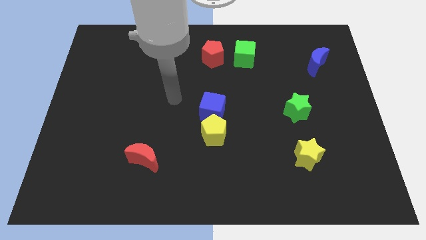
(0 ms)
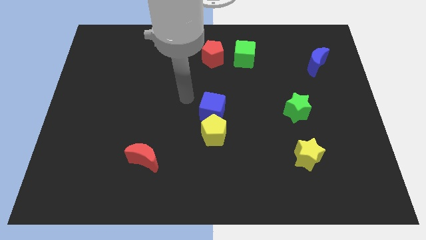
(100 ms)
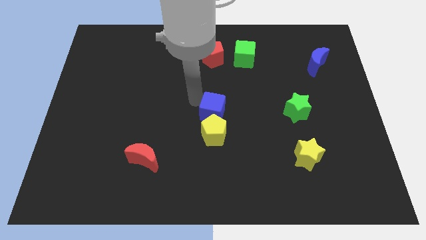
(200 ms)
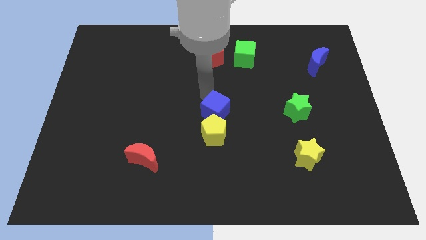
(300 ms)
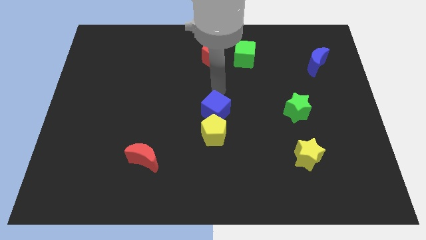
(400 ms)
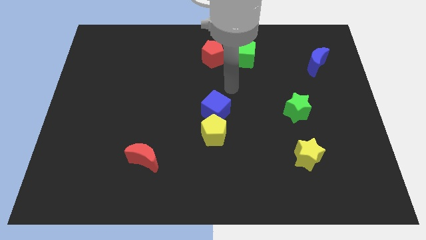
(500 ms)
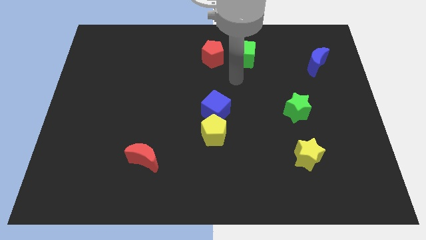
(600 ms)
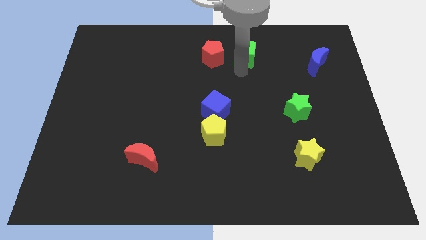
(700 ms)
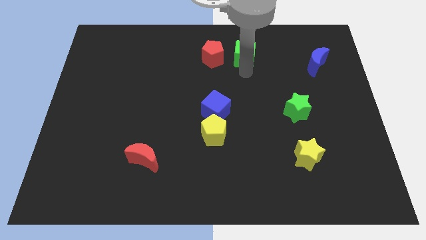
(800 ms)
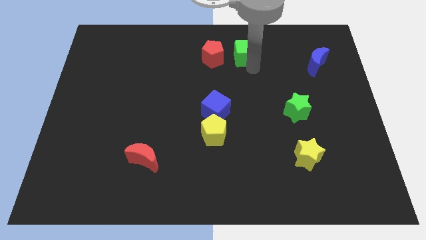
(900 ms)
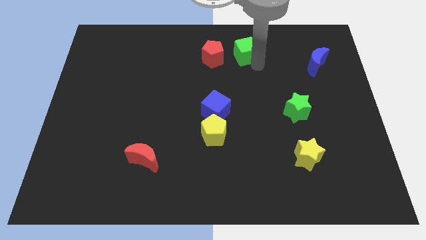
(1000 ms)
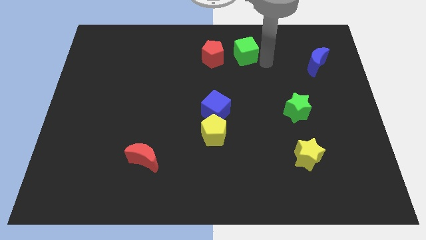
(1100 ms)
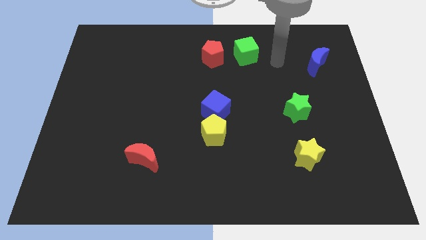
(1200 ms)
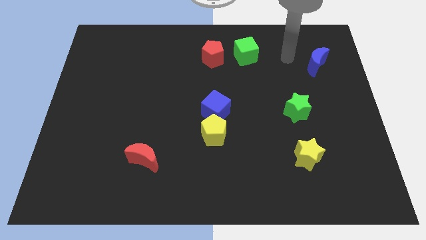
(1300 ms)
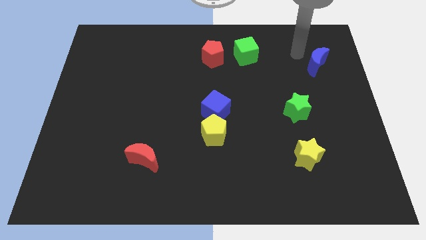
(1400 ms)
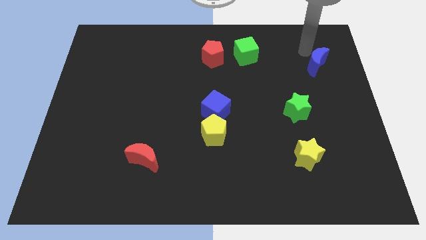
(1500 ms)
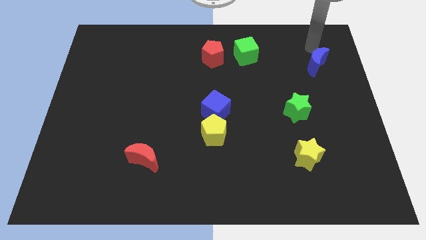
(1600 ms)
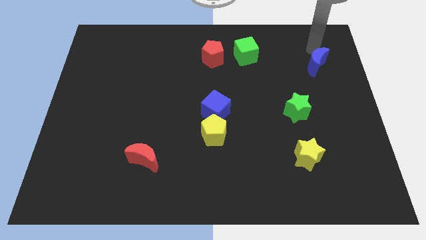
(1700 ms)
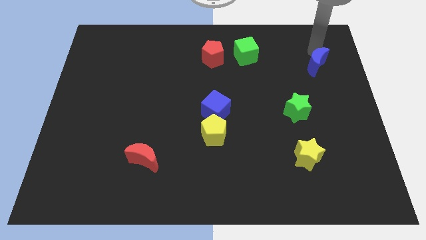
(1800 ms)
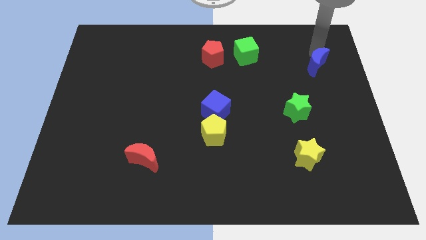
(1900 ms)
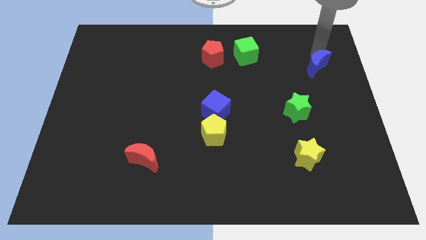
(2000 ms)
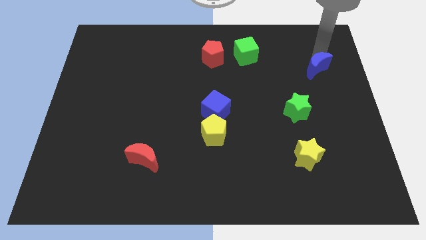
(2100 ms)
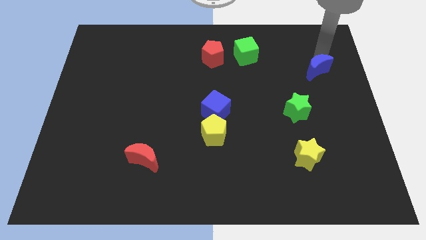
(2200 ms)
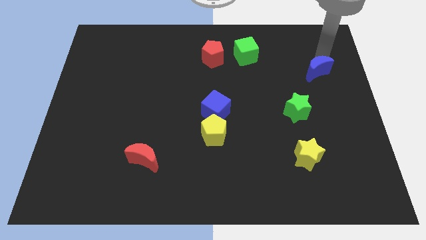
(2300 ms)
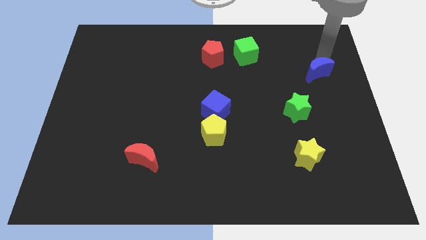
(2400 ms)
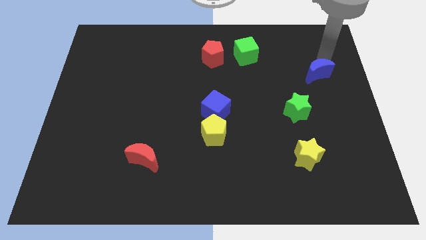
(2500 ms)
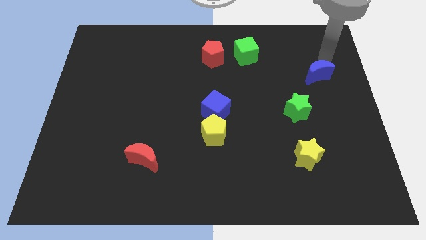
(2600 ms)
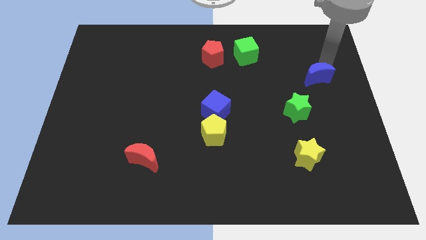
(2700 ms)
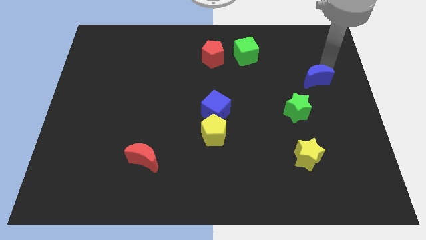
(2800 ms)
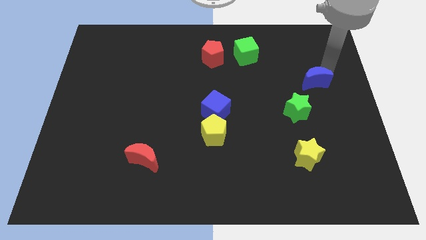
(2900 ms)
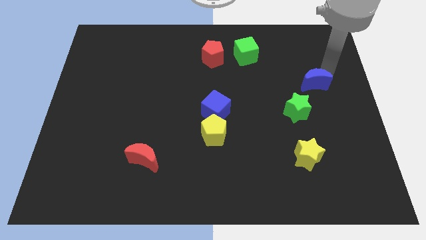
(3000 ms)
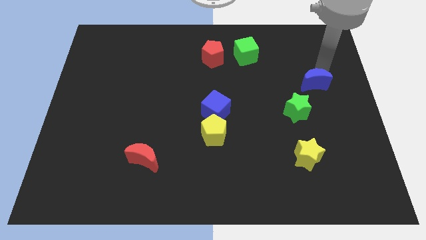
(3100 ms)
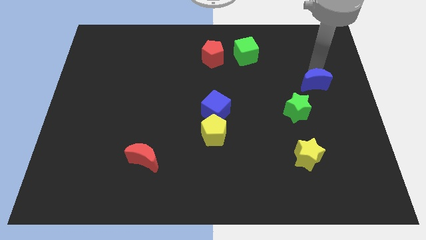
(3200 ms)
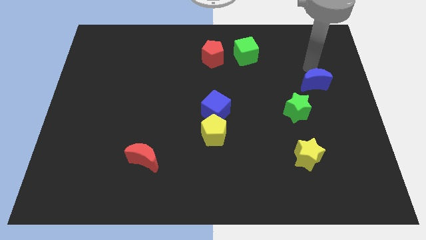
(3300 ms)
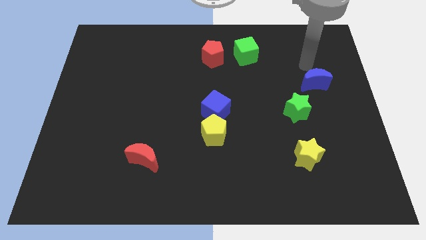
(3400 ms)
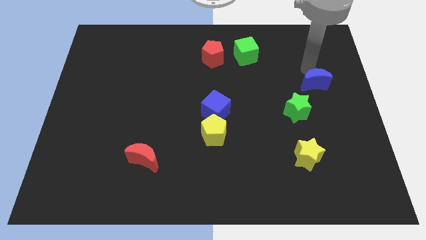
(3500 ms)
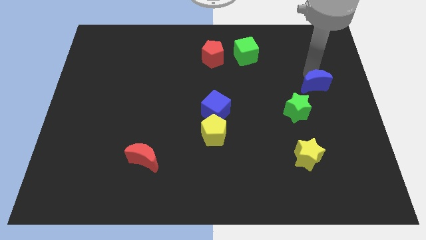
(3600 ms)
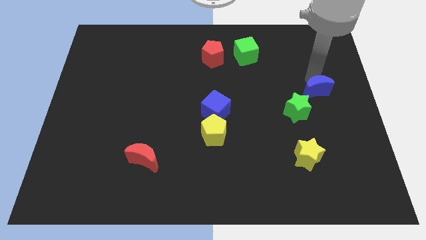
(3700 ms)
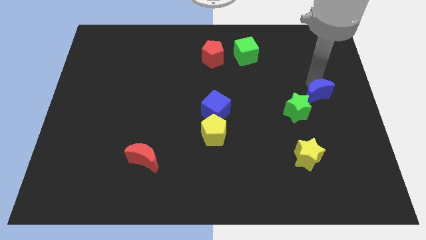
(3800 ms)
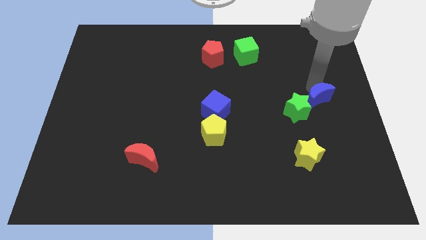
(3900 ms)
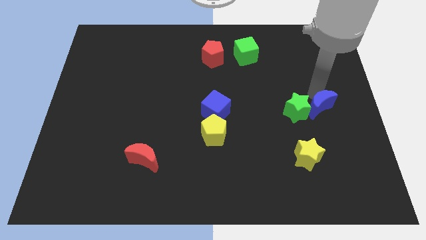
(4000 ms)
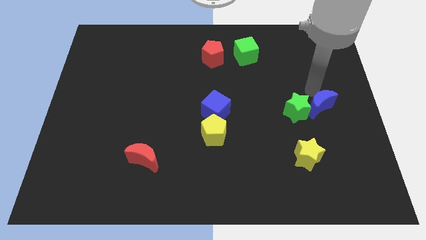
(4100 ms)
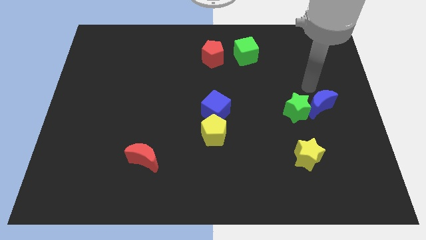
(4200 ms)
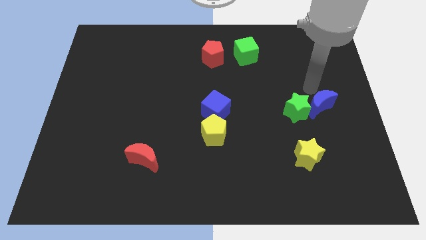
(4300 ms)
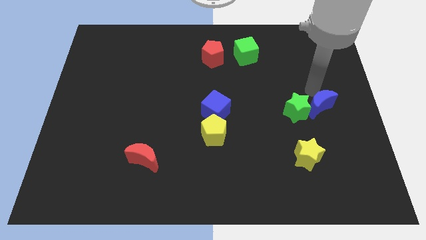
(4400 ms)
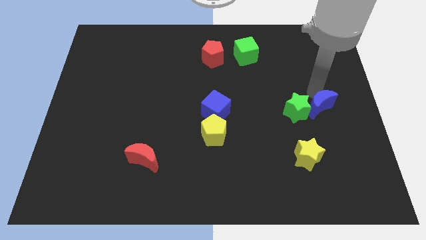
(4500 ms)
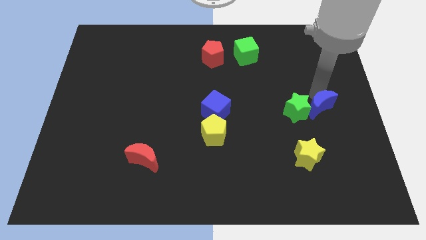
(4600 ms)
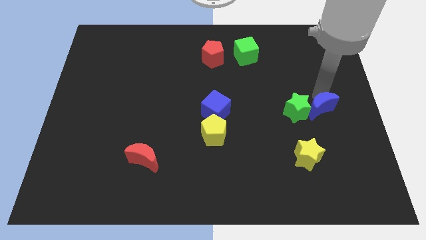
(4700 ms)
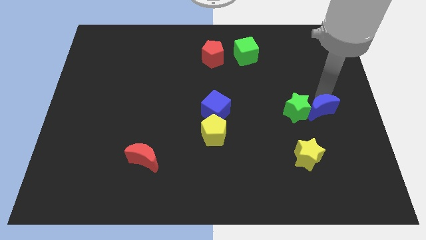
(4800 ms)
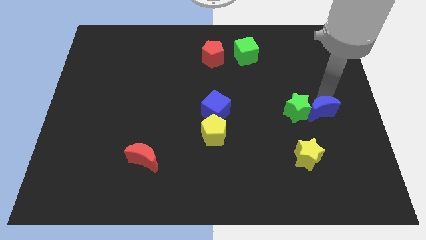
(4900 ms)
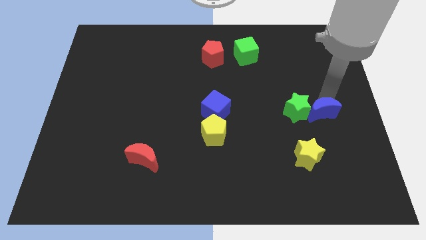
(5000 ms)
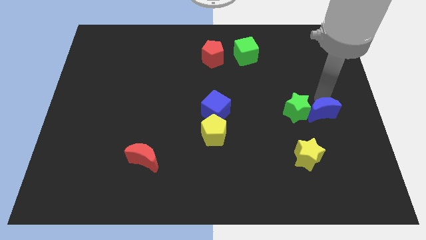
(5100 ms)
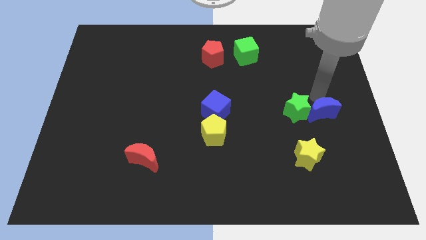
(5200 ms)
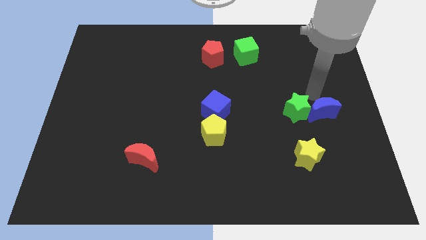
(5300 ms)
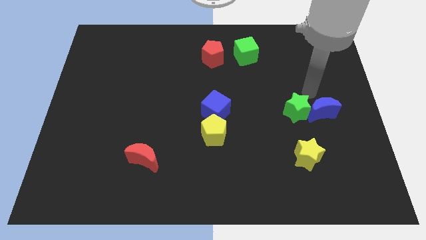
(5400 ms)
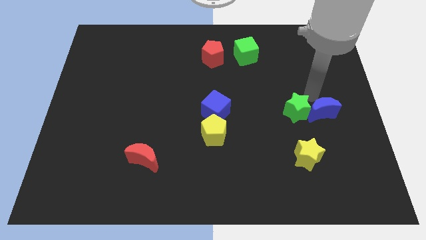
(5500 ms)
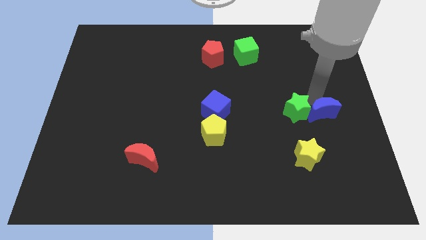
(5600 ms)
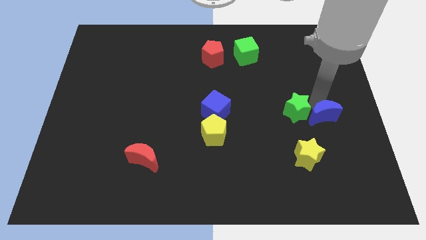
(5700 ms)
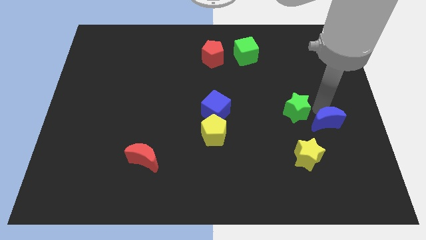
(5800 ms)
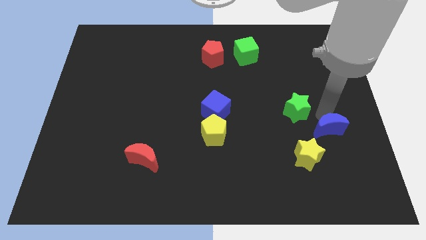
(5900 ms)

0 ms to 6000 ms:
slide the blue moon downwards

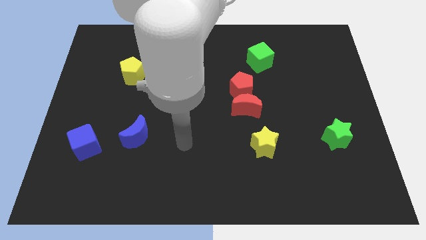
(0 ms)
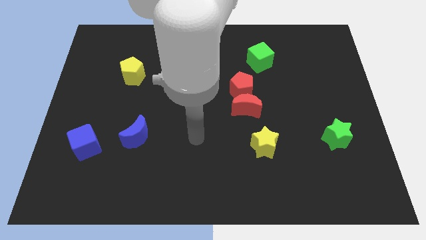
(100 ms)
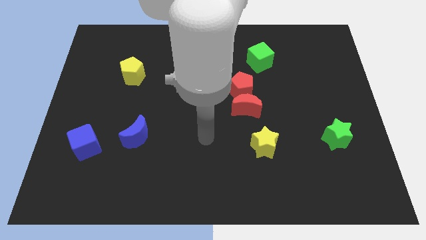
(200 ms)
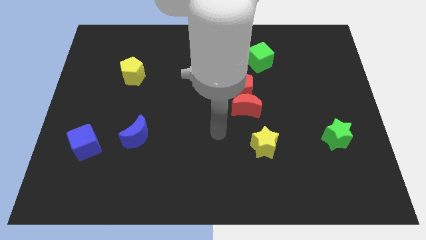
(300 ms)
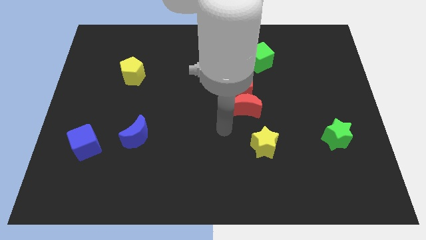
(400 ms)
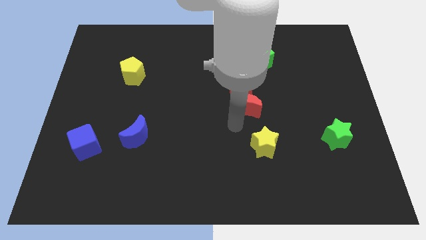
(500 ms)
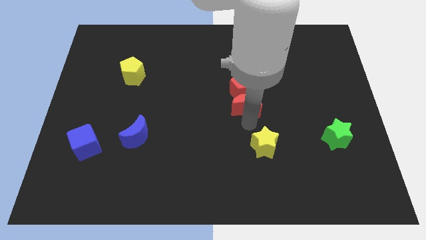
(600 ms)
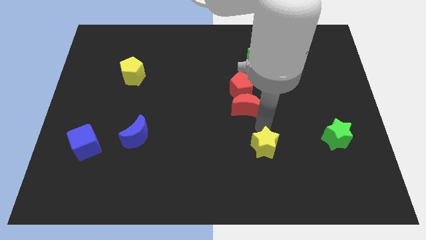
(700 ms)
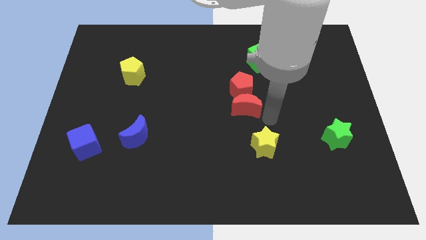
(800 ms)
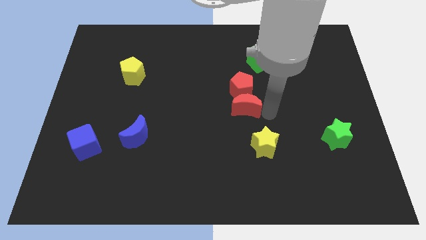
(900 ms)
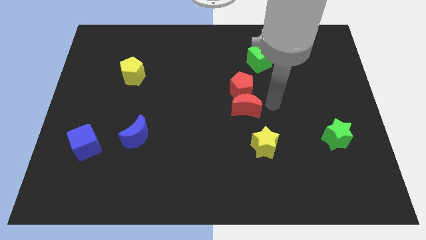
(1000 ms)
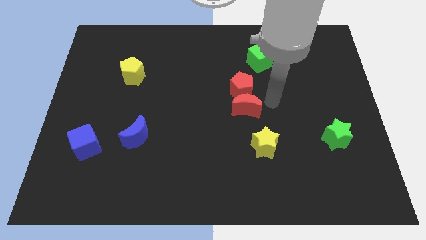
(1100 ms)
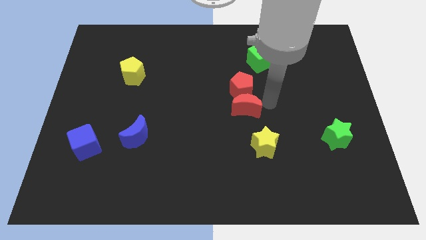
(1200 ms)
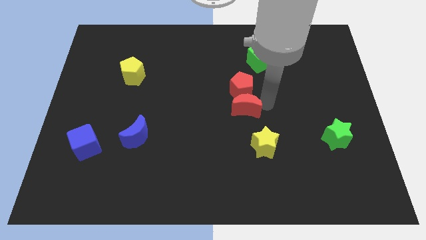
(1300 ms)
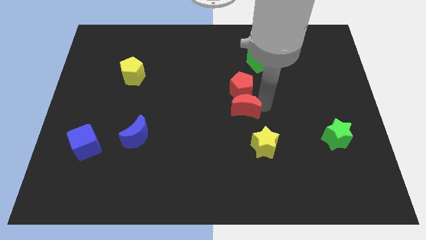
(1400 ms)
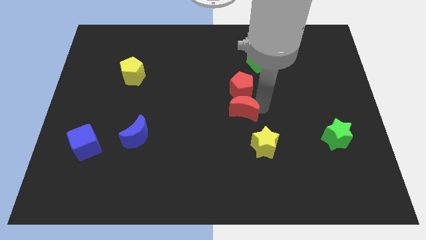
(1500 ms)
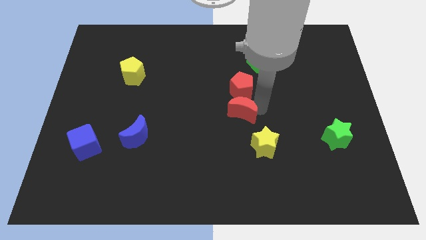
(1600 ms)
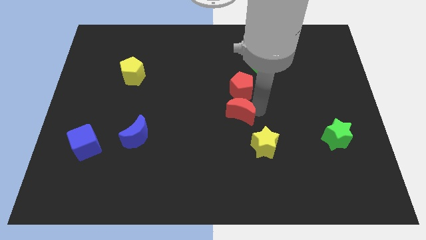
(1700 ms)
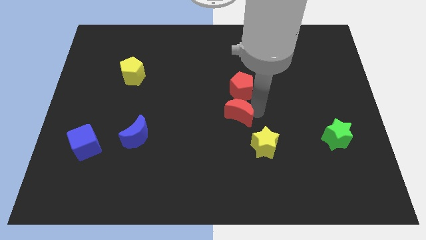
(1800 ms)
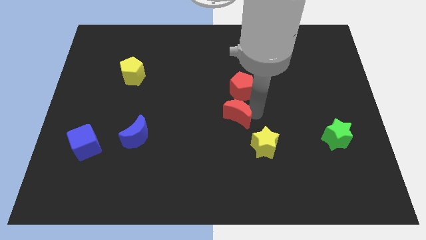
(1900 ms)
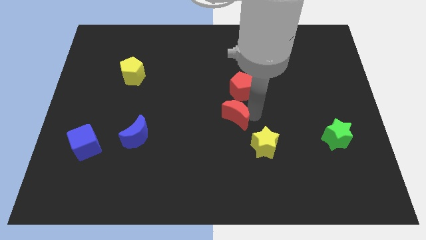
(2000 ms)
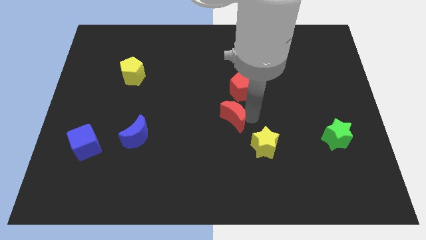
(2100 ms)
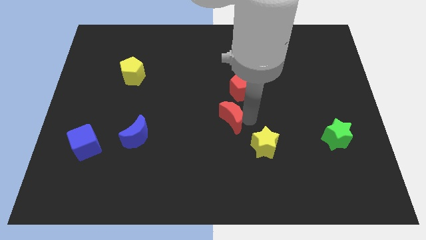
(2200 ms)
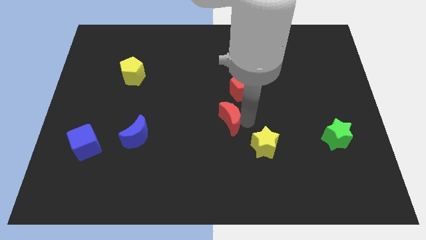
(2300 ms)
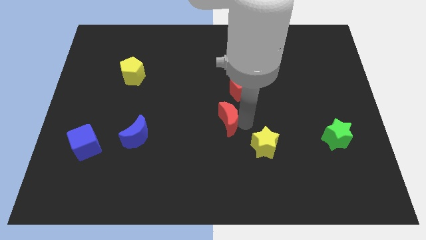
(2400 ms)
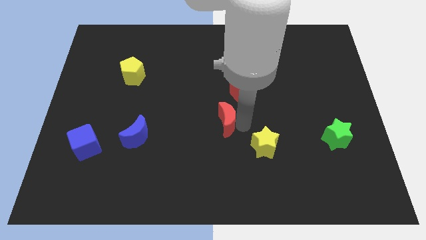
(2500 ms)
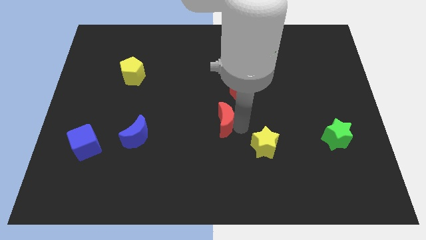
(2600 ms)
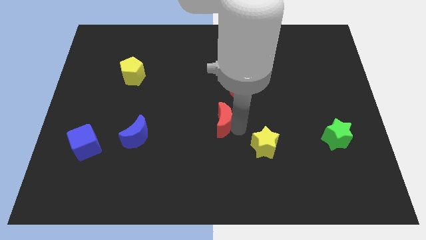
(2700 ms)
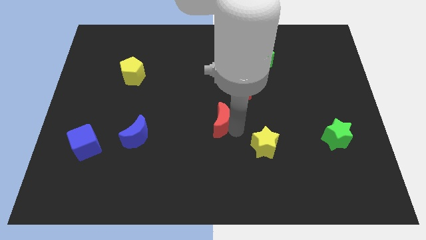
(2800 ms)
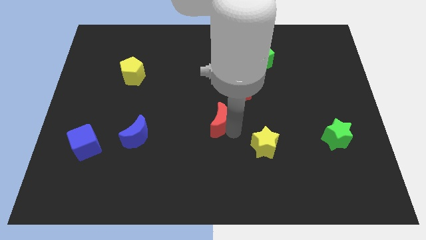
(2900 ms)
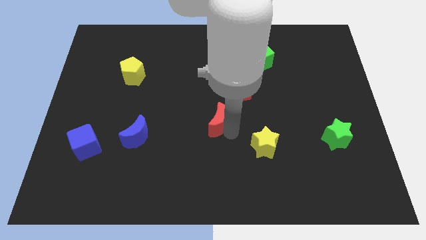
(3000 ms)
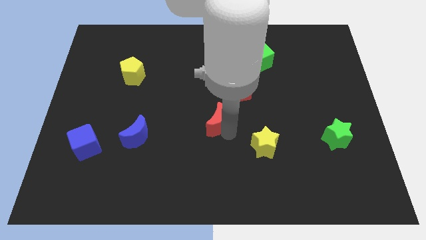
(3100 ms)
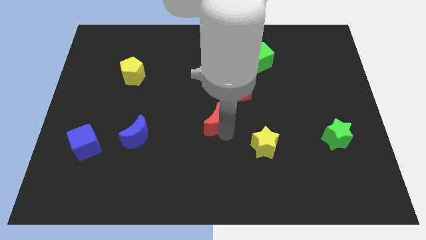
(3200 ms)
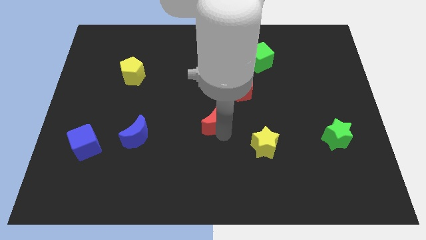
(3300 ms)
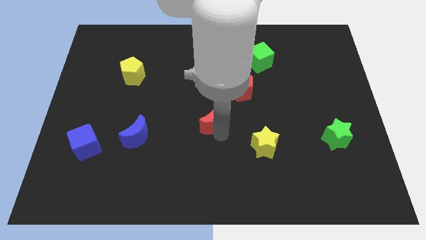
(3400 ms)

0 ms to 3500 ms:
slide the red moon slightly to the left
